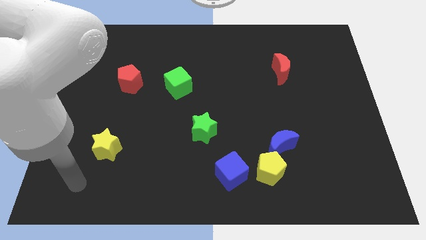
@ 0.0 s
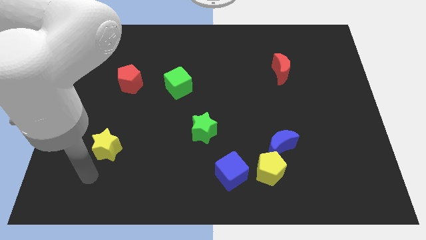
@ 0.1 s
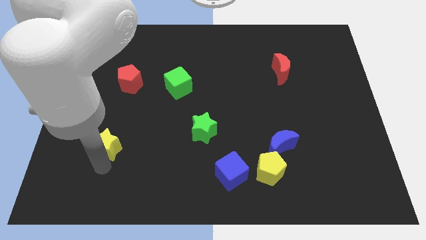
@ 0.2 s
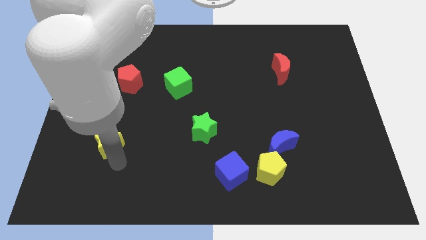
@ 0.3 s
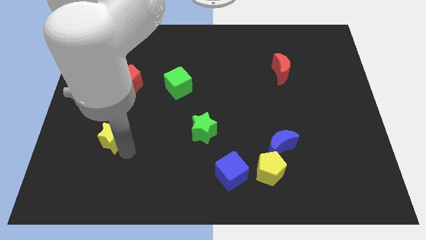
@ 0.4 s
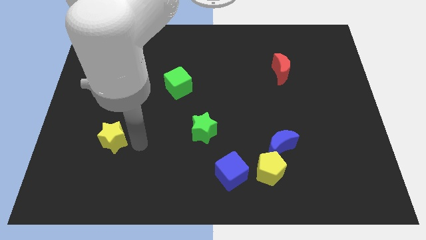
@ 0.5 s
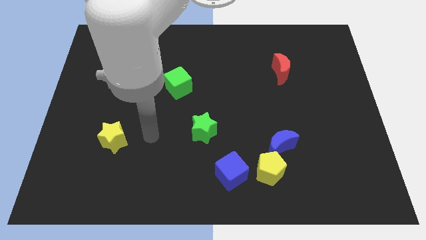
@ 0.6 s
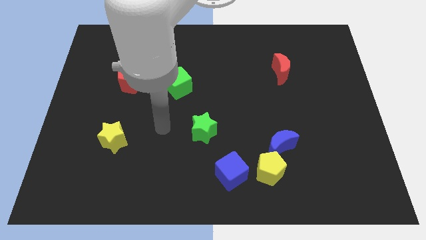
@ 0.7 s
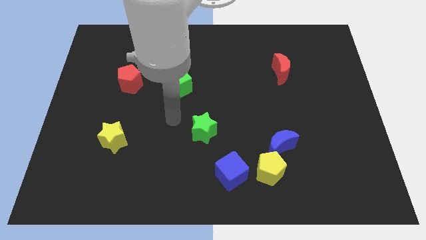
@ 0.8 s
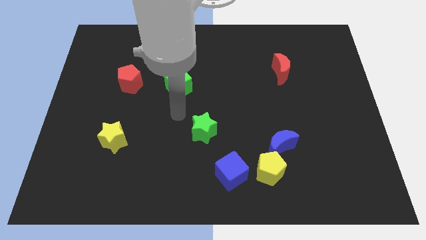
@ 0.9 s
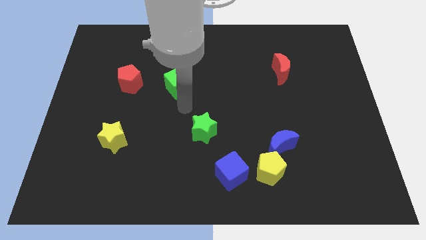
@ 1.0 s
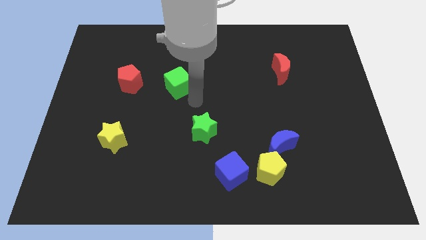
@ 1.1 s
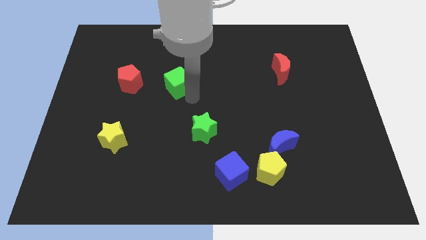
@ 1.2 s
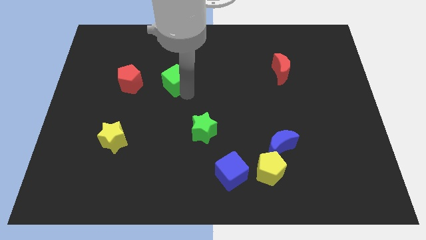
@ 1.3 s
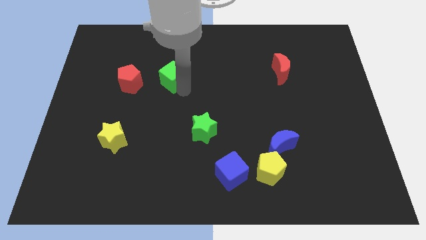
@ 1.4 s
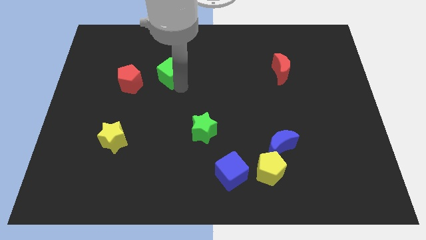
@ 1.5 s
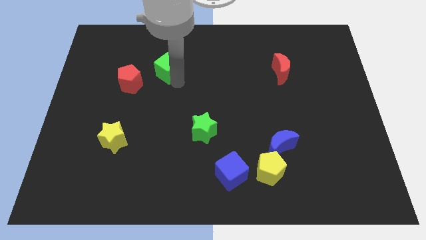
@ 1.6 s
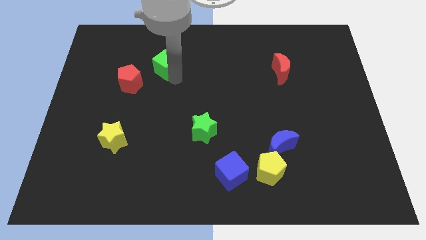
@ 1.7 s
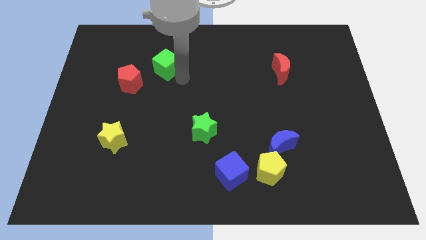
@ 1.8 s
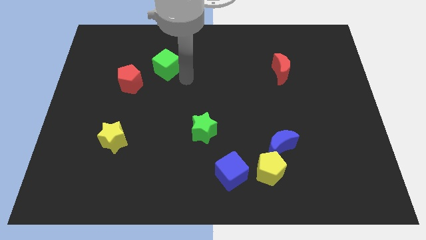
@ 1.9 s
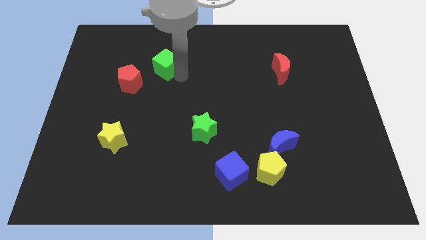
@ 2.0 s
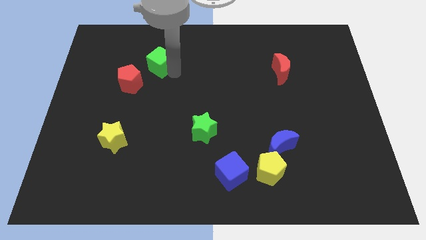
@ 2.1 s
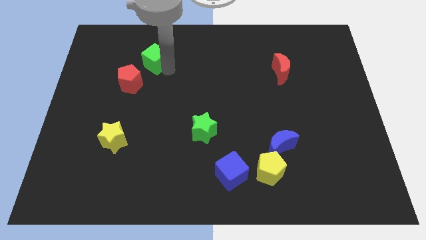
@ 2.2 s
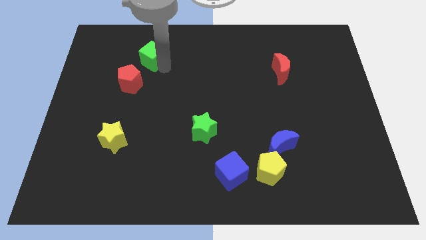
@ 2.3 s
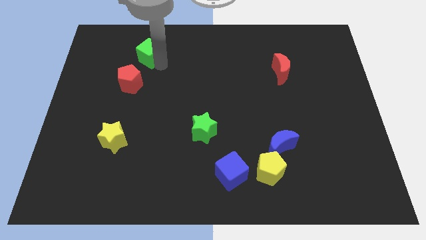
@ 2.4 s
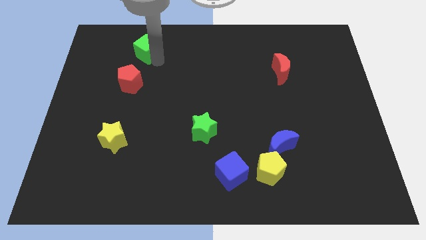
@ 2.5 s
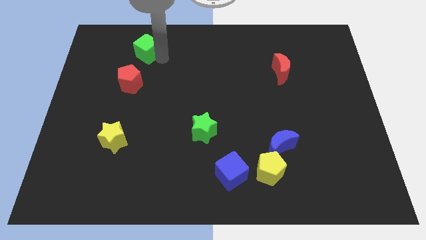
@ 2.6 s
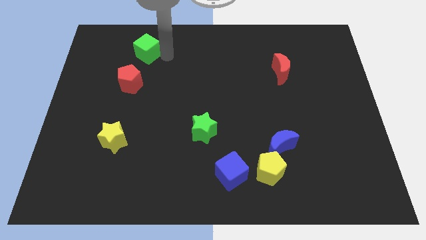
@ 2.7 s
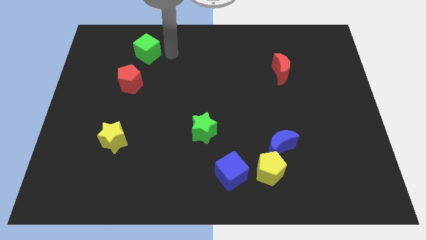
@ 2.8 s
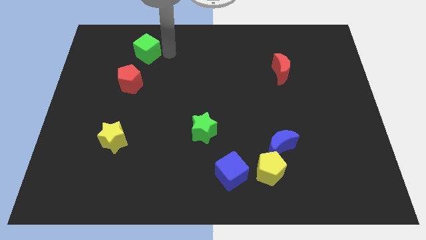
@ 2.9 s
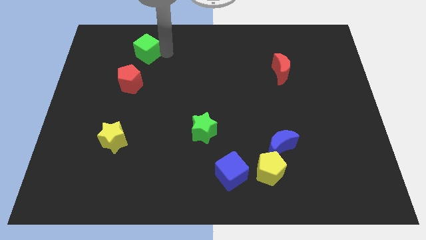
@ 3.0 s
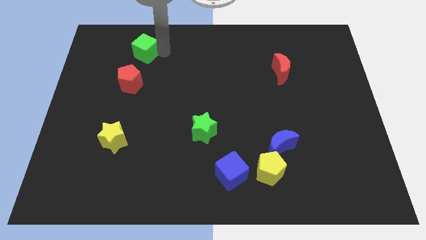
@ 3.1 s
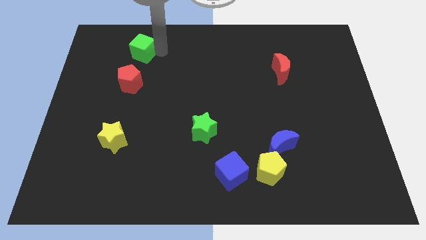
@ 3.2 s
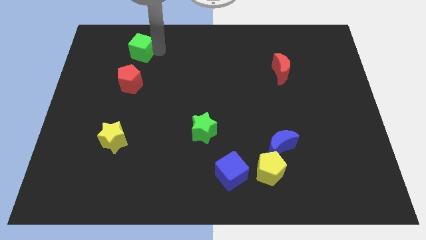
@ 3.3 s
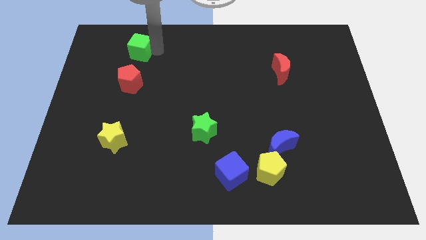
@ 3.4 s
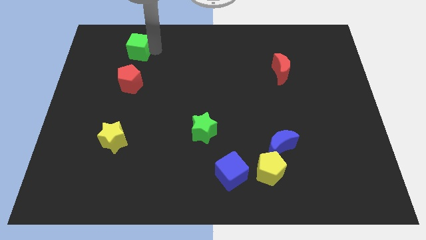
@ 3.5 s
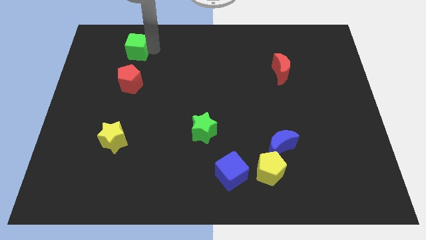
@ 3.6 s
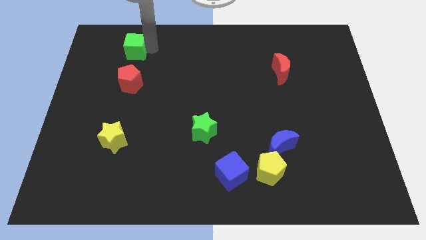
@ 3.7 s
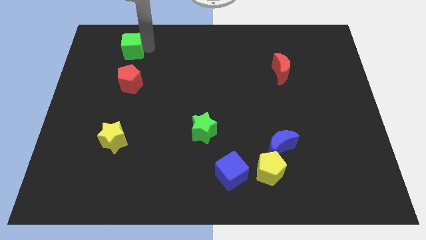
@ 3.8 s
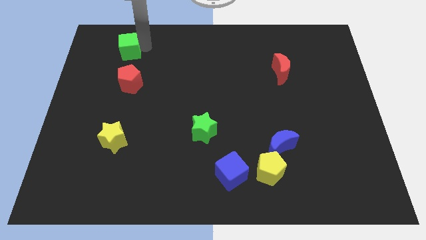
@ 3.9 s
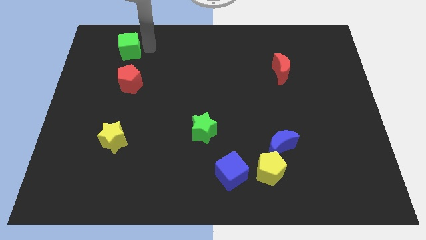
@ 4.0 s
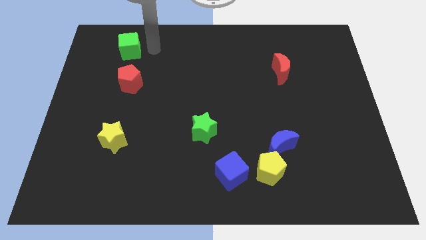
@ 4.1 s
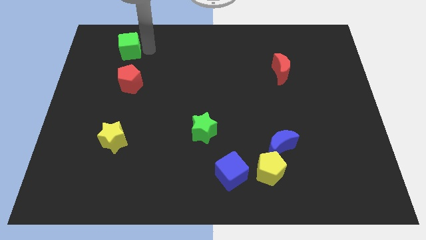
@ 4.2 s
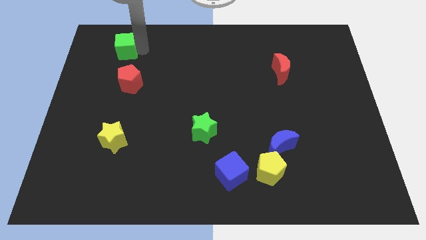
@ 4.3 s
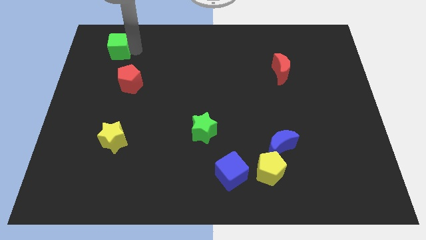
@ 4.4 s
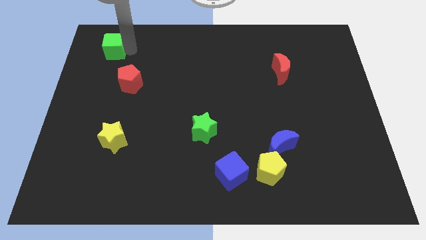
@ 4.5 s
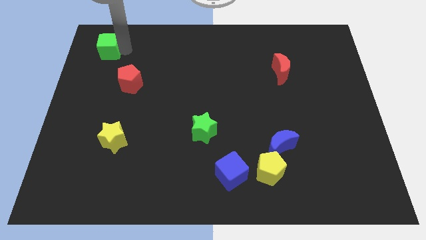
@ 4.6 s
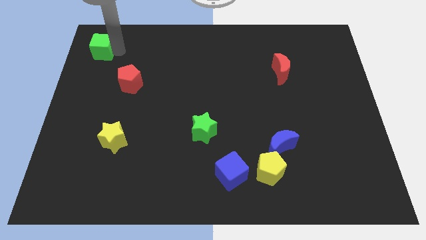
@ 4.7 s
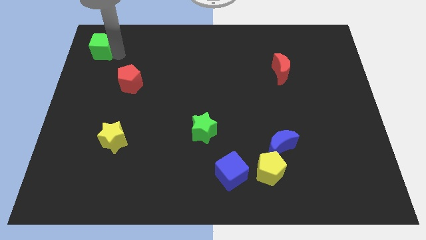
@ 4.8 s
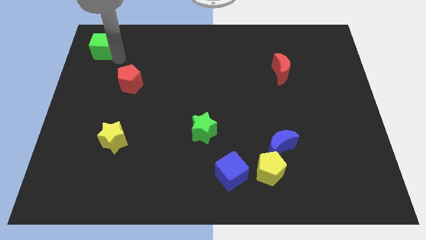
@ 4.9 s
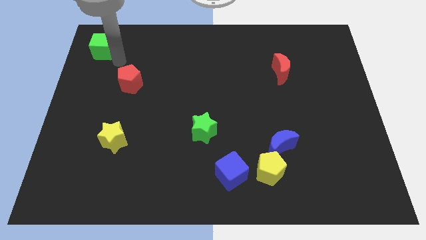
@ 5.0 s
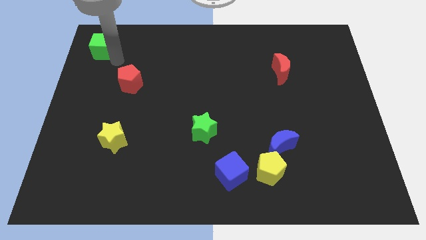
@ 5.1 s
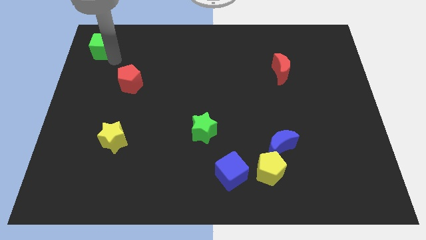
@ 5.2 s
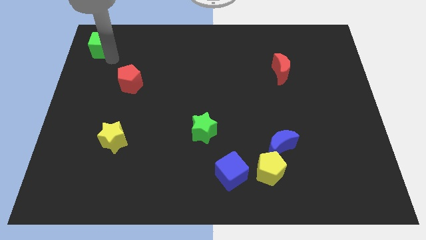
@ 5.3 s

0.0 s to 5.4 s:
push the green cube to the top left corner

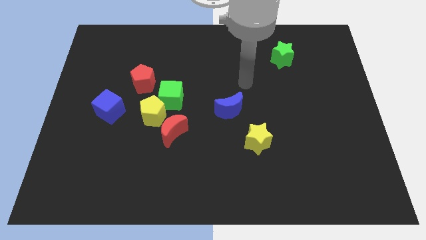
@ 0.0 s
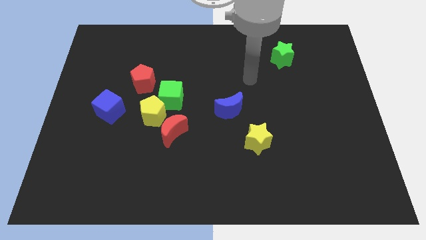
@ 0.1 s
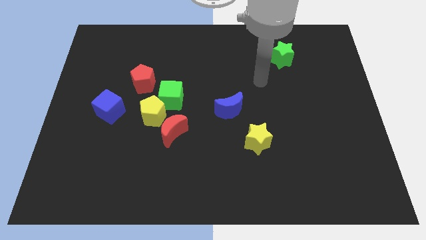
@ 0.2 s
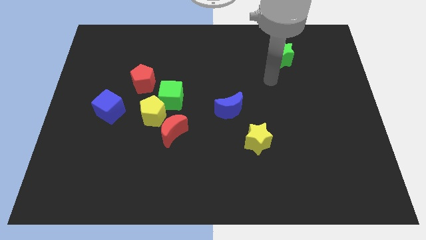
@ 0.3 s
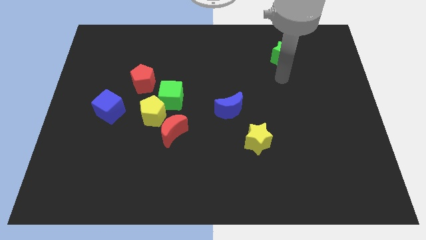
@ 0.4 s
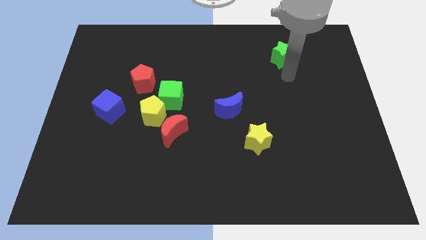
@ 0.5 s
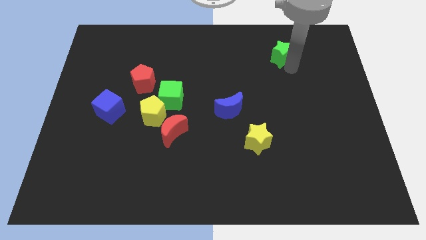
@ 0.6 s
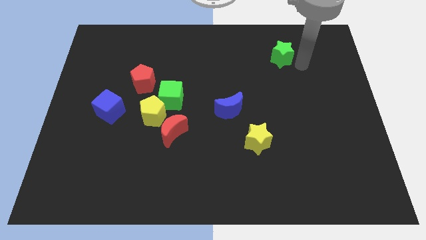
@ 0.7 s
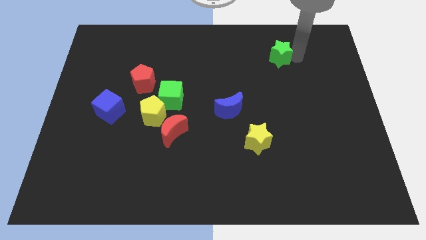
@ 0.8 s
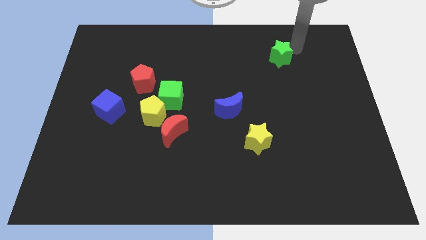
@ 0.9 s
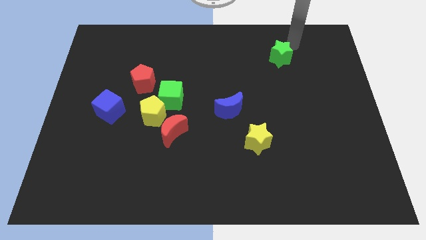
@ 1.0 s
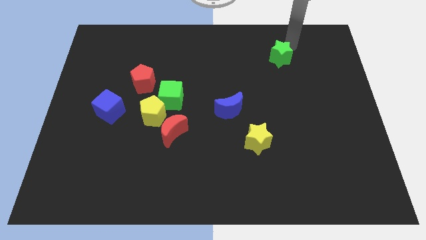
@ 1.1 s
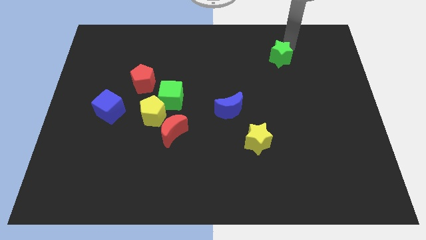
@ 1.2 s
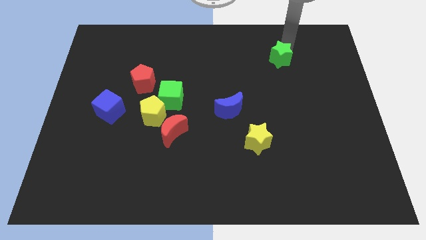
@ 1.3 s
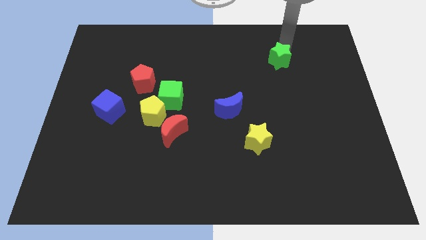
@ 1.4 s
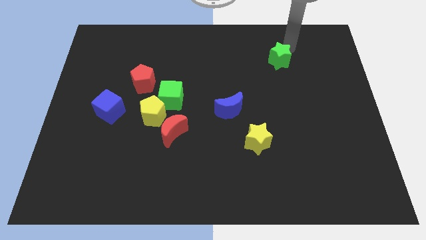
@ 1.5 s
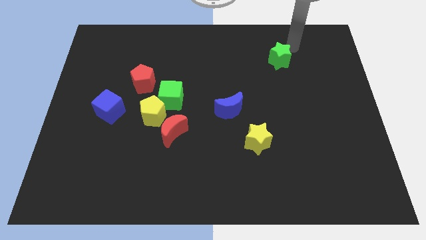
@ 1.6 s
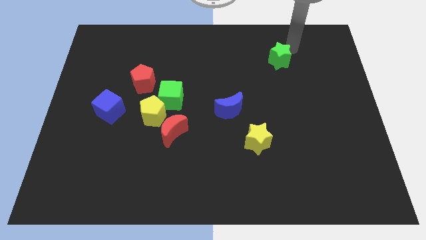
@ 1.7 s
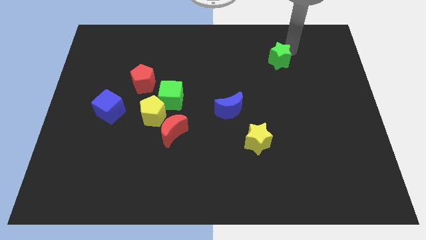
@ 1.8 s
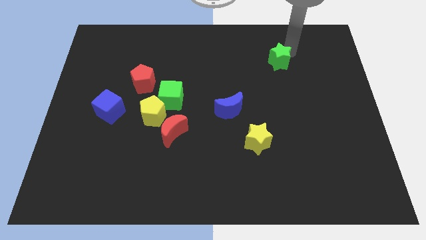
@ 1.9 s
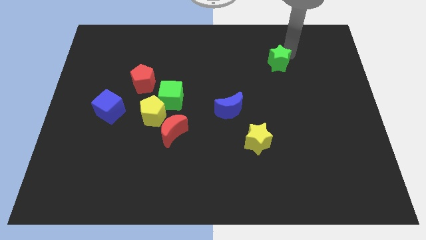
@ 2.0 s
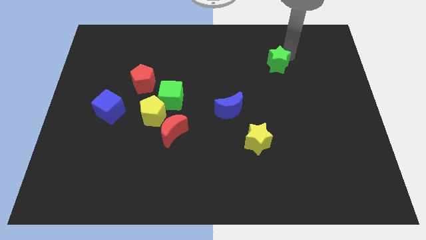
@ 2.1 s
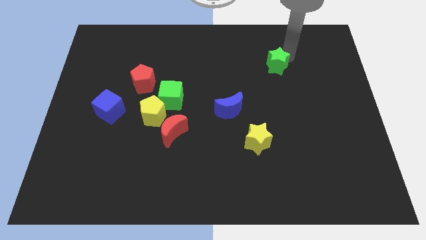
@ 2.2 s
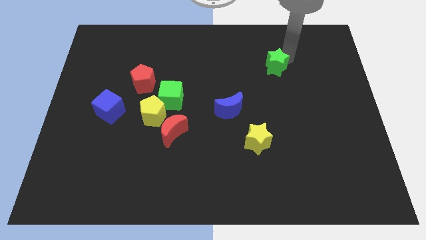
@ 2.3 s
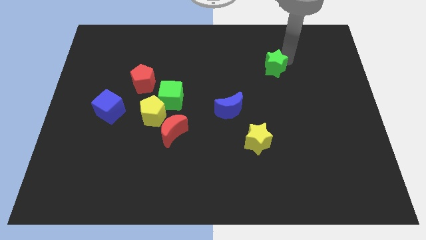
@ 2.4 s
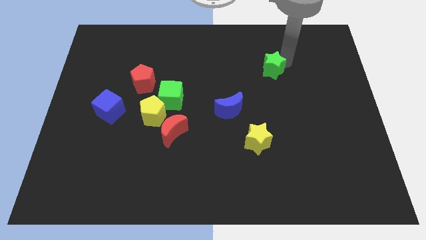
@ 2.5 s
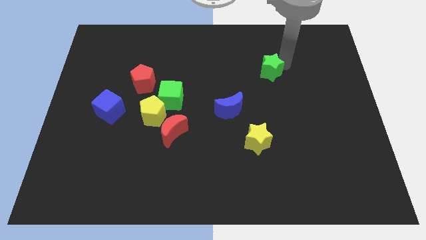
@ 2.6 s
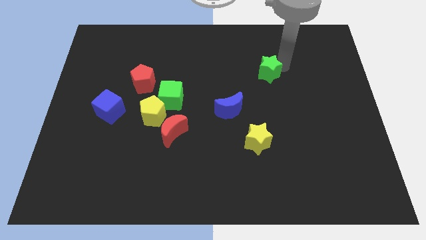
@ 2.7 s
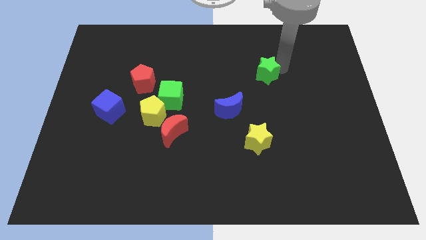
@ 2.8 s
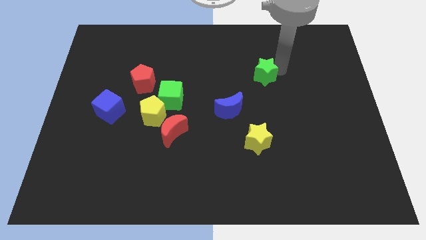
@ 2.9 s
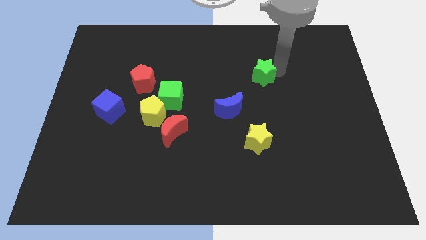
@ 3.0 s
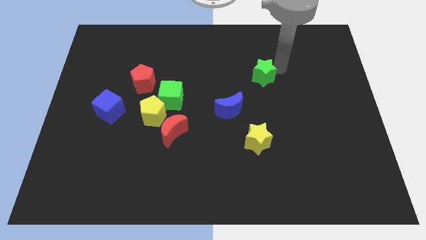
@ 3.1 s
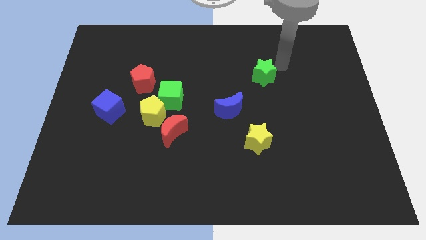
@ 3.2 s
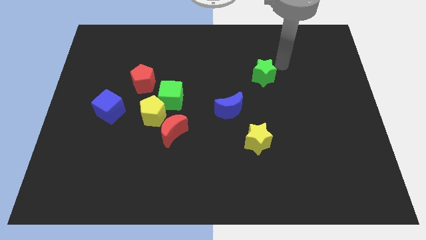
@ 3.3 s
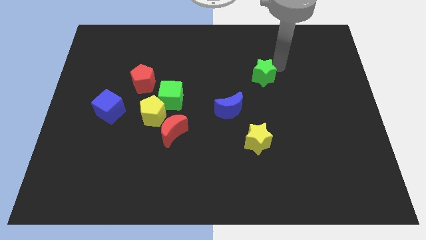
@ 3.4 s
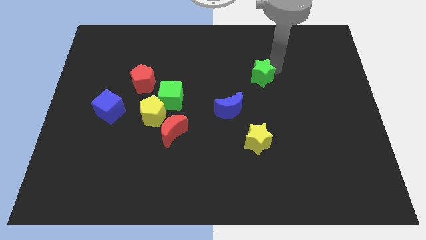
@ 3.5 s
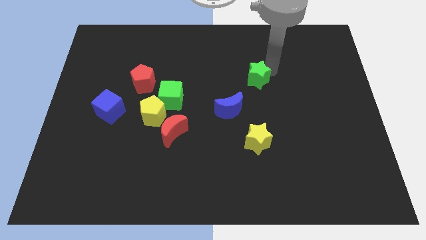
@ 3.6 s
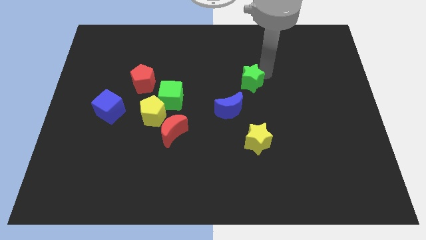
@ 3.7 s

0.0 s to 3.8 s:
move the green star to the center of the board
